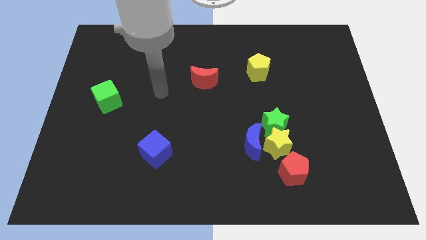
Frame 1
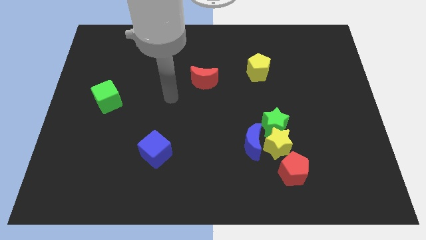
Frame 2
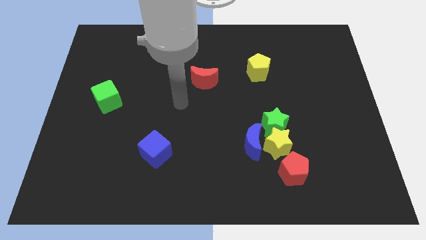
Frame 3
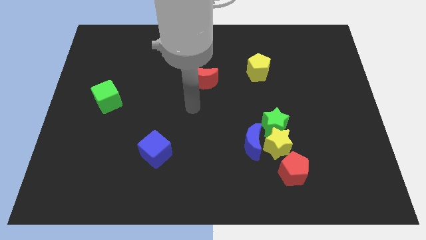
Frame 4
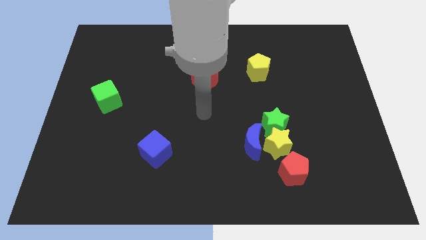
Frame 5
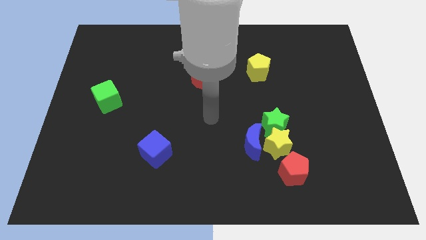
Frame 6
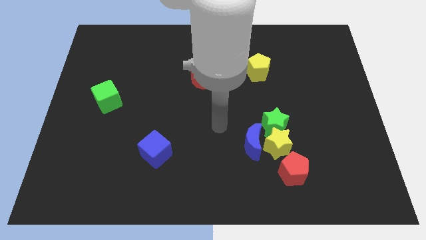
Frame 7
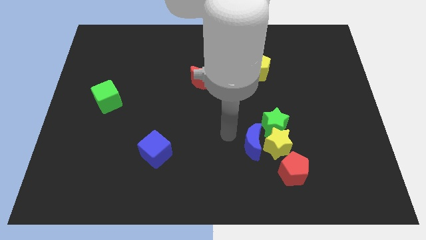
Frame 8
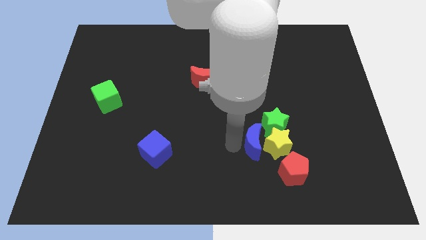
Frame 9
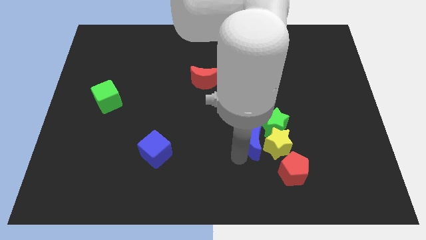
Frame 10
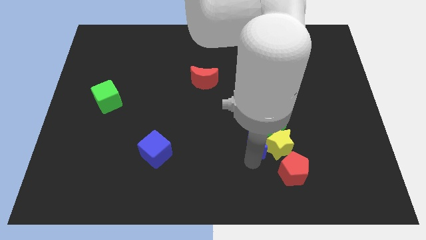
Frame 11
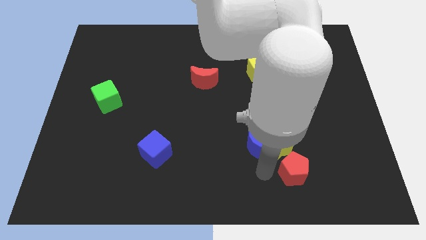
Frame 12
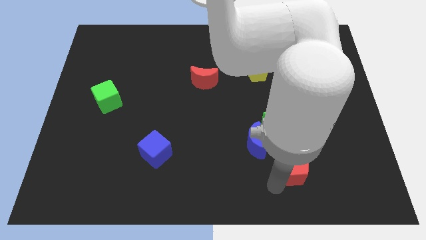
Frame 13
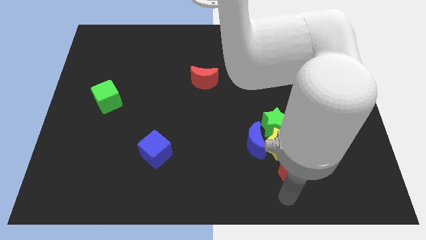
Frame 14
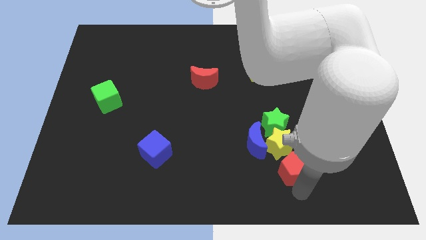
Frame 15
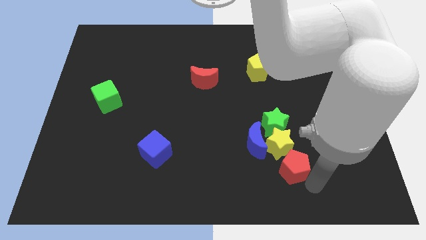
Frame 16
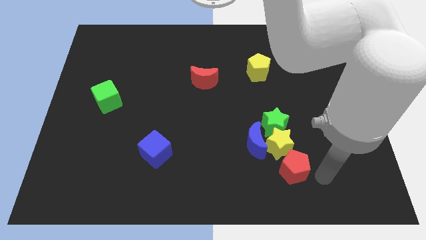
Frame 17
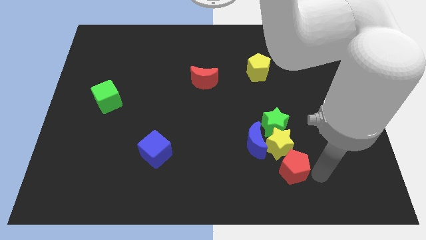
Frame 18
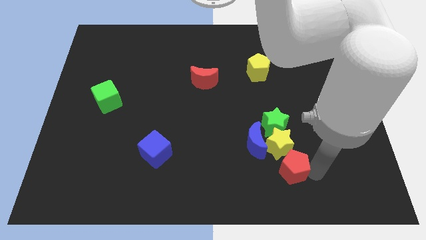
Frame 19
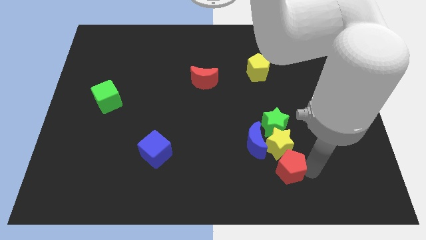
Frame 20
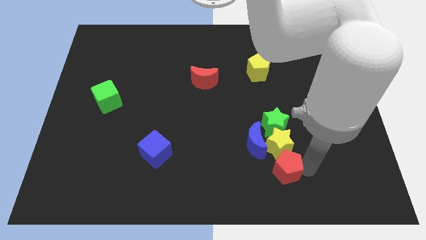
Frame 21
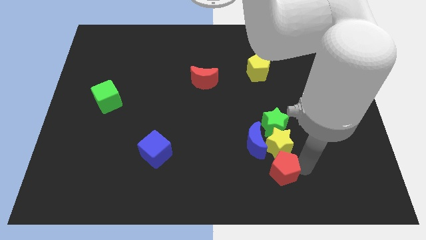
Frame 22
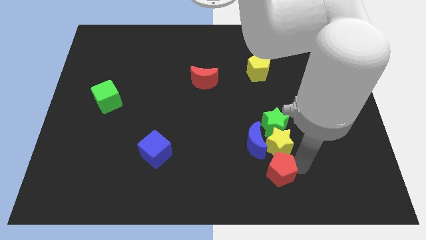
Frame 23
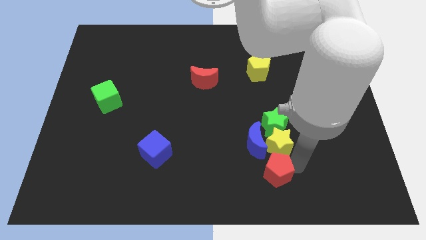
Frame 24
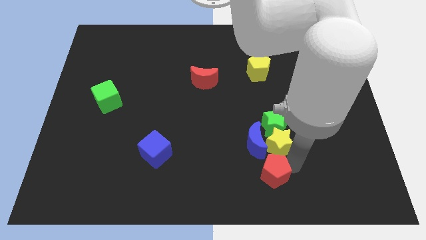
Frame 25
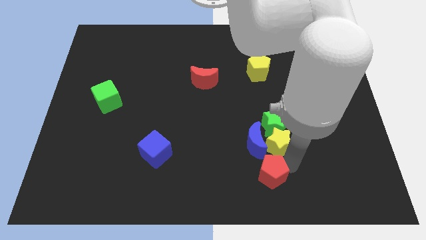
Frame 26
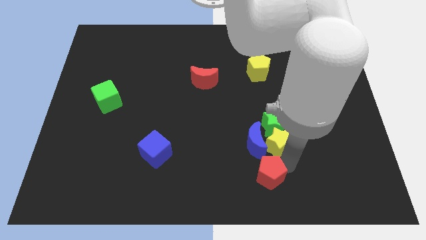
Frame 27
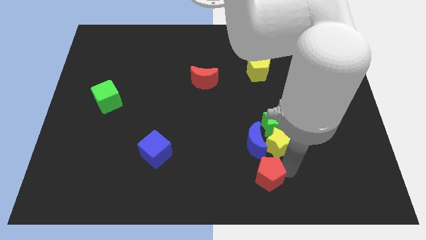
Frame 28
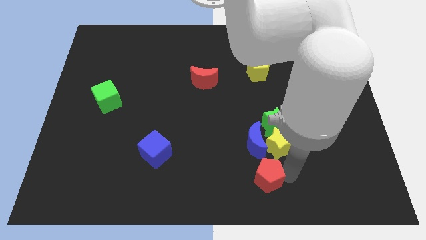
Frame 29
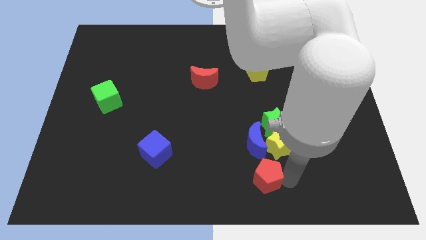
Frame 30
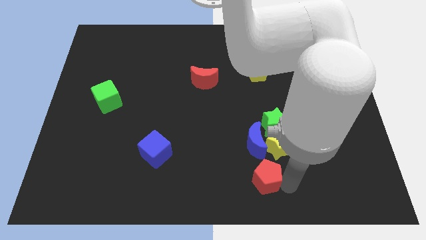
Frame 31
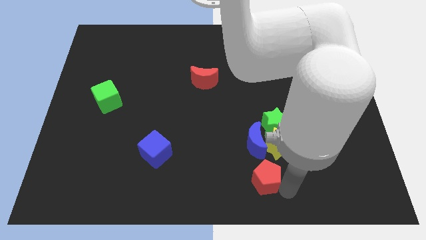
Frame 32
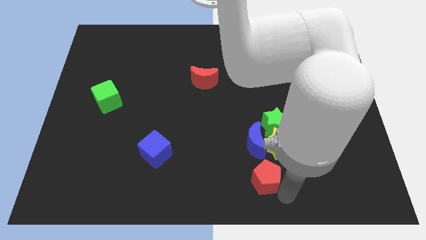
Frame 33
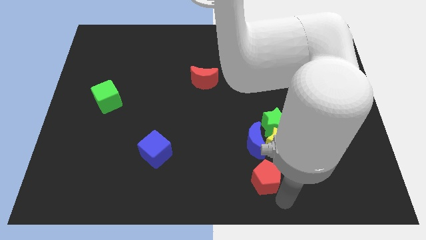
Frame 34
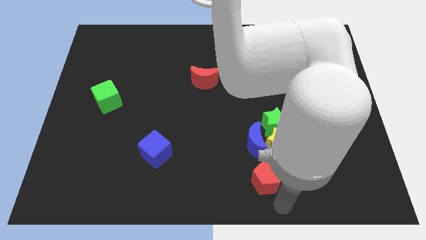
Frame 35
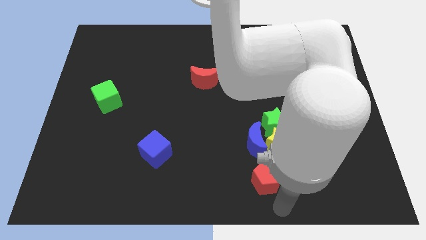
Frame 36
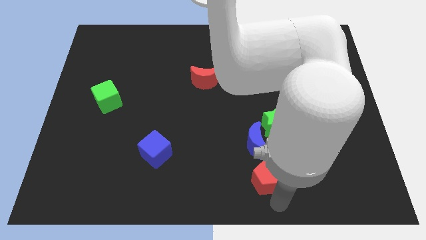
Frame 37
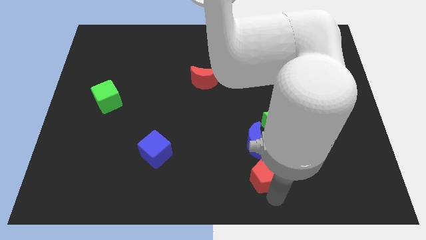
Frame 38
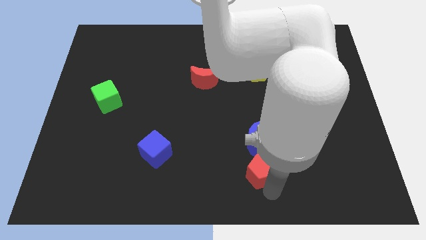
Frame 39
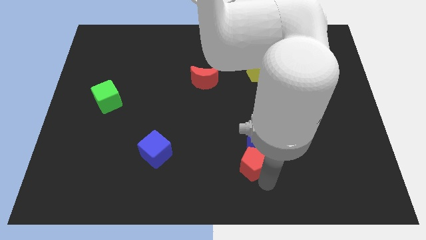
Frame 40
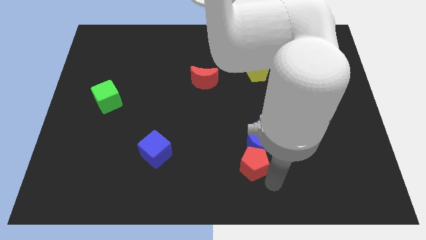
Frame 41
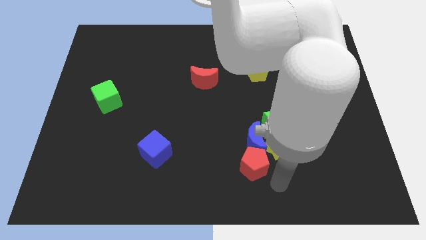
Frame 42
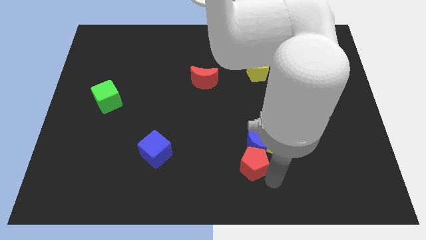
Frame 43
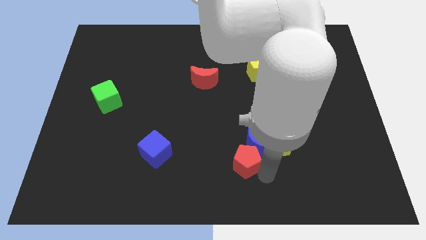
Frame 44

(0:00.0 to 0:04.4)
push the red pentagon upwards and left a little

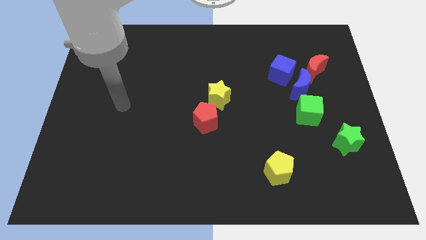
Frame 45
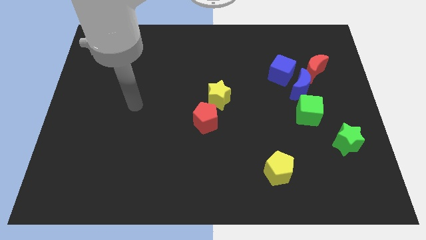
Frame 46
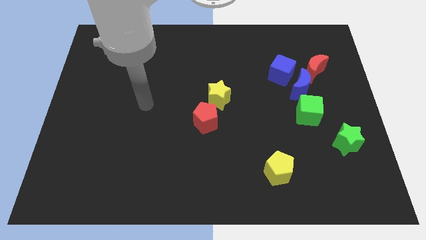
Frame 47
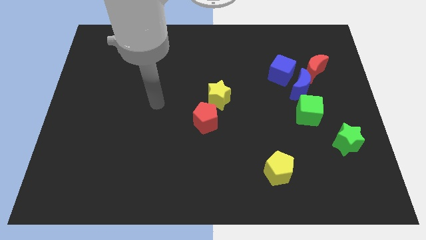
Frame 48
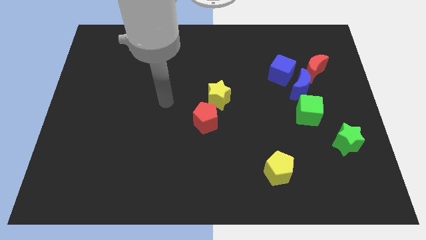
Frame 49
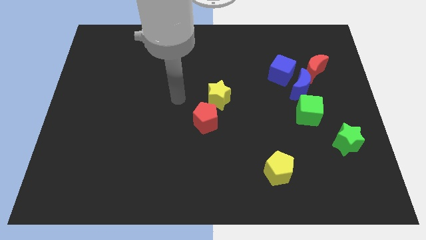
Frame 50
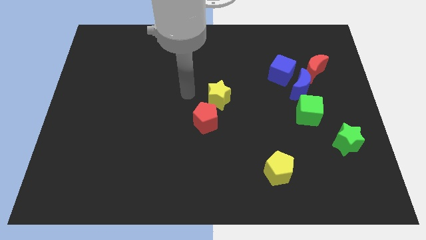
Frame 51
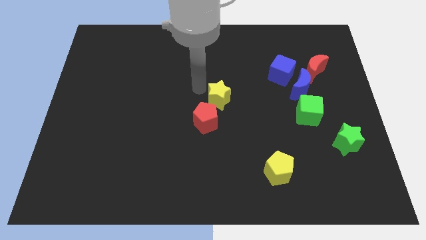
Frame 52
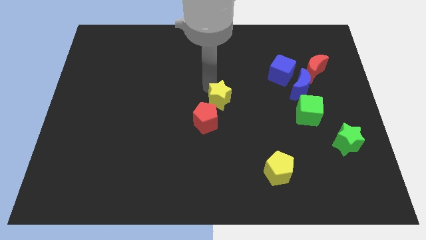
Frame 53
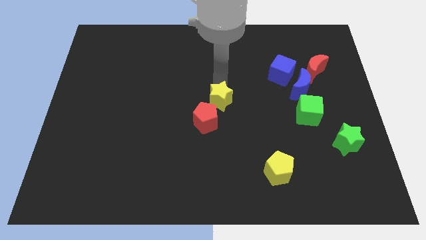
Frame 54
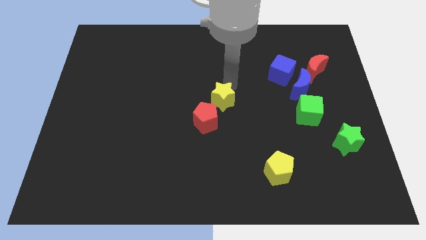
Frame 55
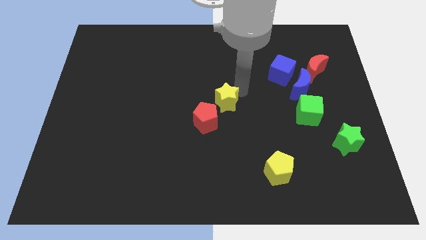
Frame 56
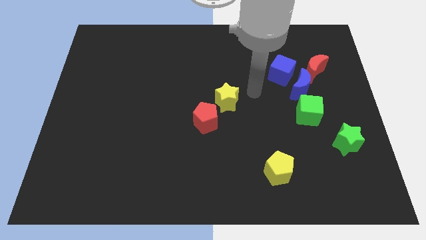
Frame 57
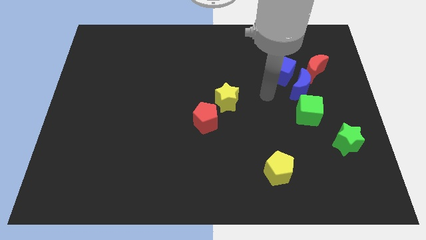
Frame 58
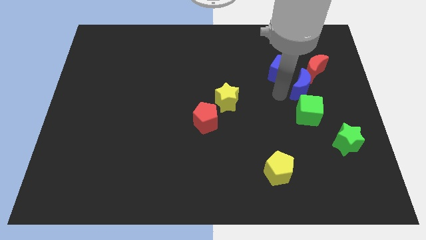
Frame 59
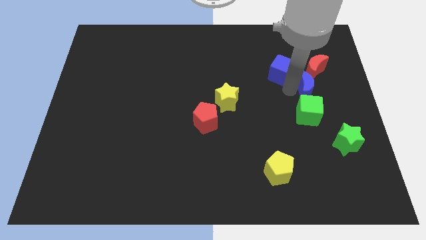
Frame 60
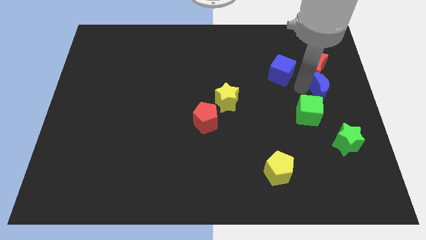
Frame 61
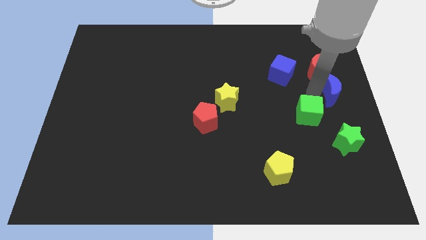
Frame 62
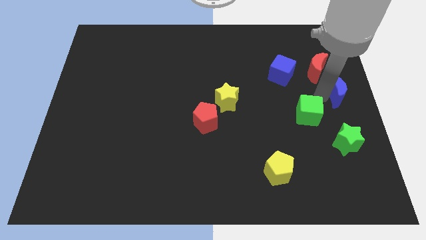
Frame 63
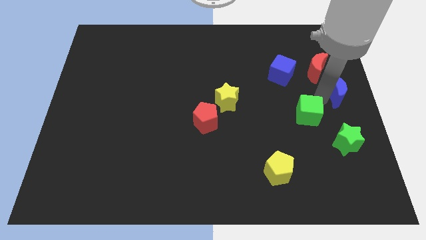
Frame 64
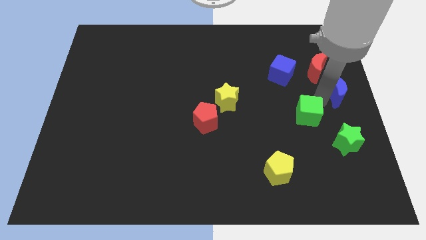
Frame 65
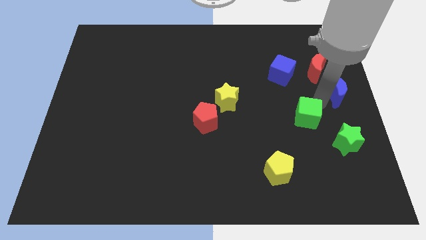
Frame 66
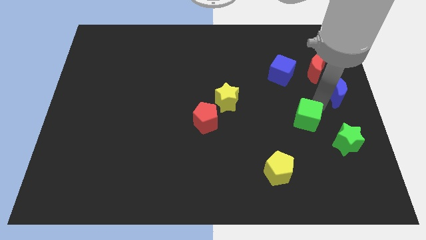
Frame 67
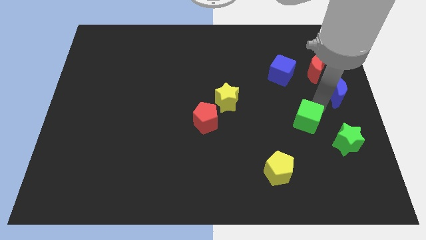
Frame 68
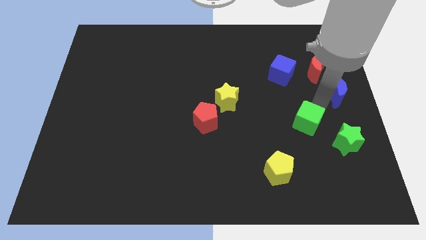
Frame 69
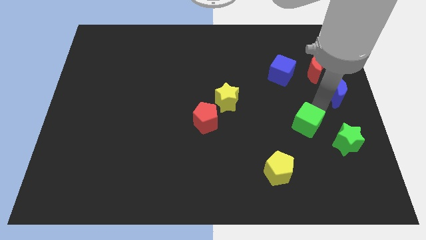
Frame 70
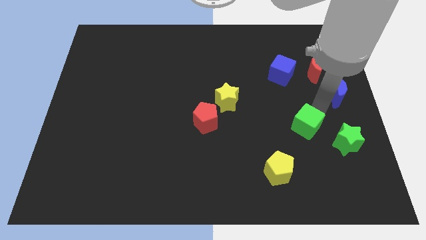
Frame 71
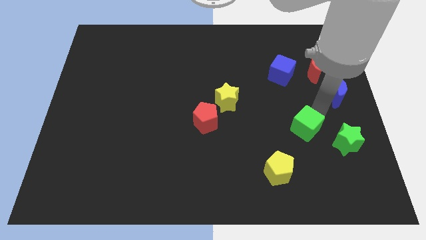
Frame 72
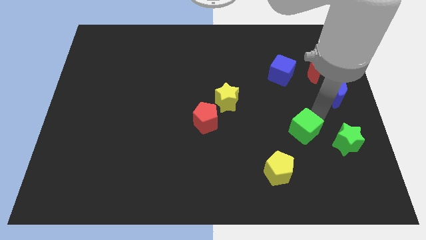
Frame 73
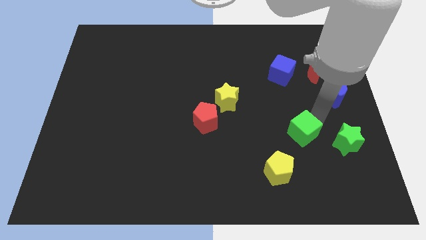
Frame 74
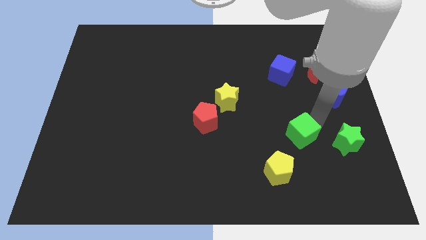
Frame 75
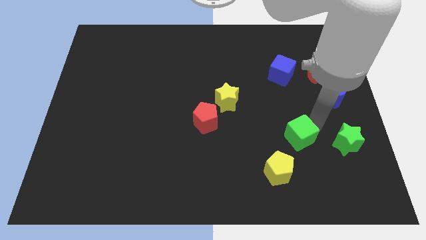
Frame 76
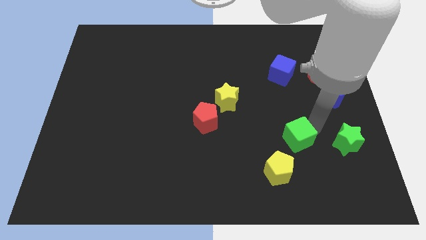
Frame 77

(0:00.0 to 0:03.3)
push the green cube a bit down and to the left diagonally

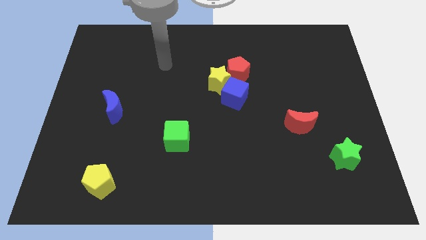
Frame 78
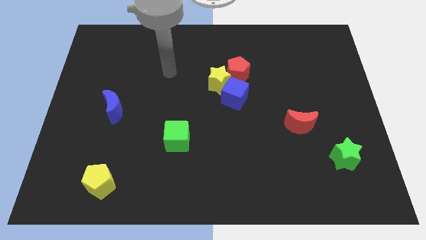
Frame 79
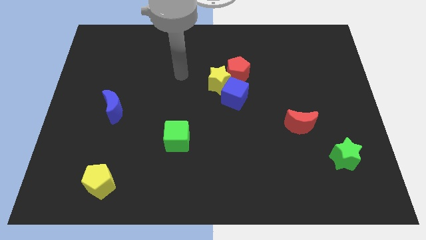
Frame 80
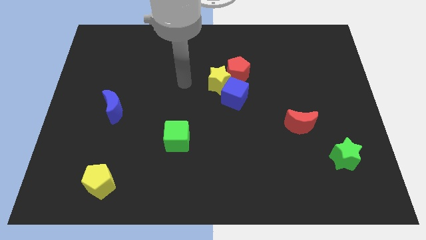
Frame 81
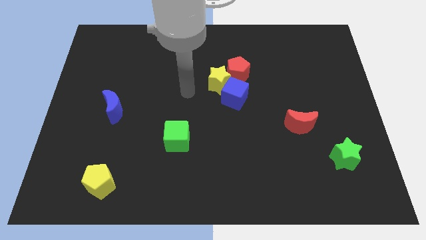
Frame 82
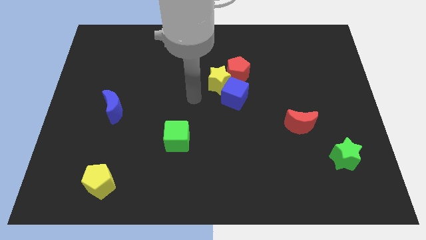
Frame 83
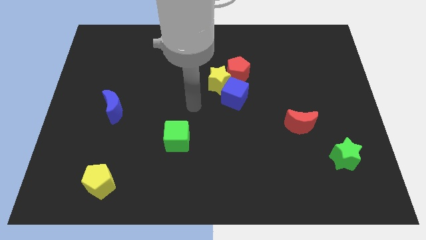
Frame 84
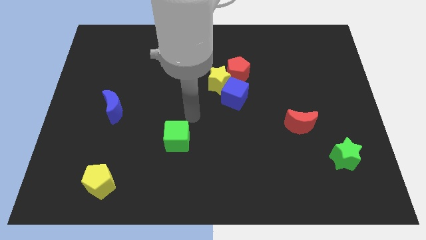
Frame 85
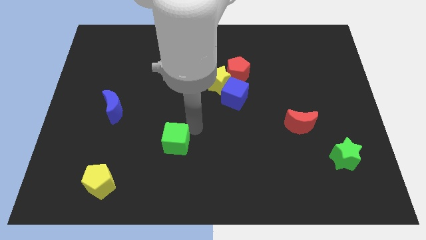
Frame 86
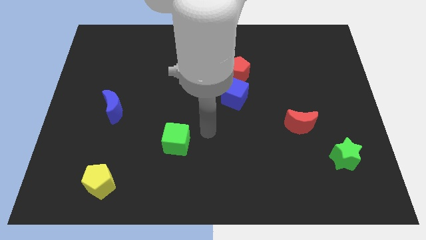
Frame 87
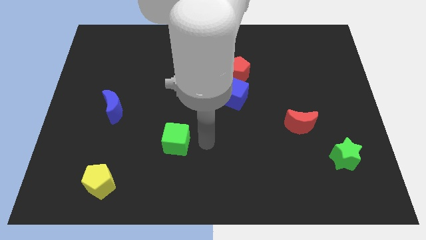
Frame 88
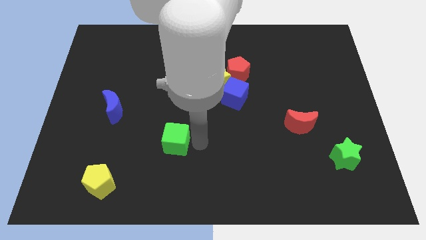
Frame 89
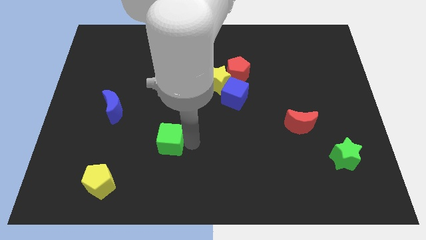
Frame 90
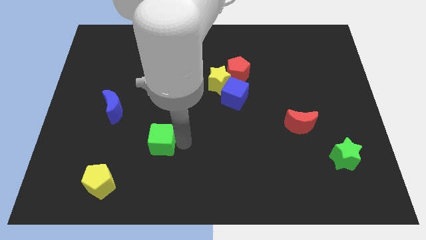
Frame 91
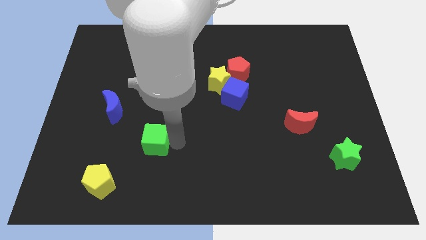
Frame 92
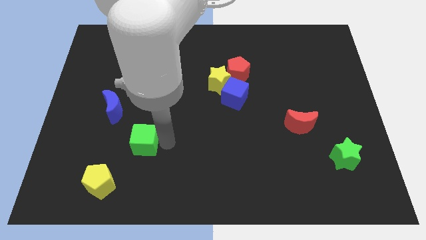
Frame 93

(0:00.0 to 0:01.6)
slightly slide the green cube to the left
